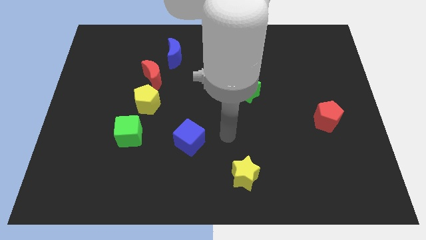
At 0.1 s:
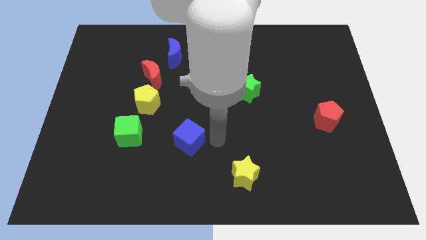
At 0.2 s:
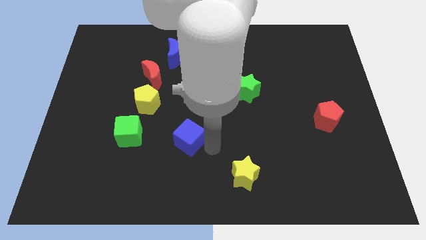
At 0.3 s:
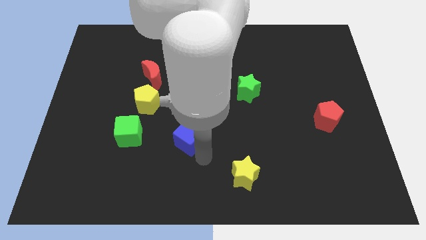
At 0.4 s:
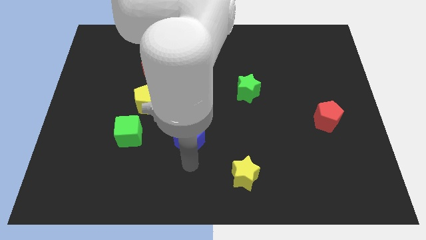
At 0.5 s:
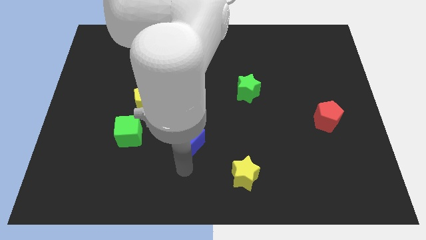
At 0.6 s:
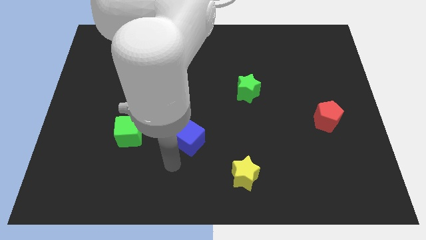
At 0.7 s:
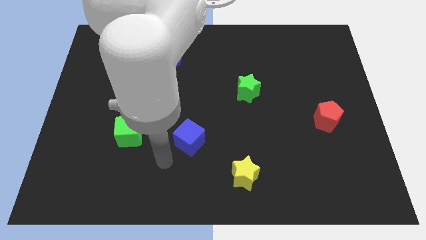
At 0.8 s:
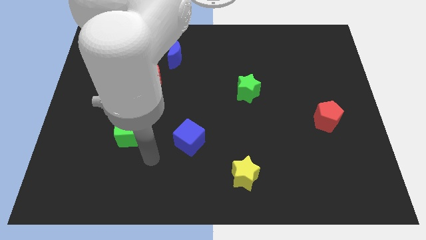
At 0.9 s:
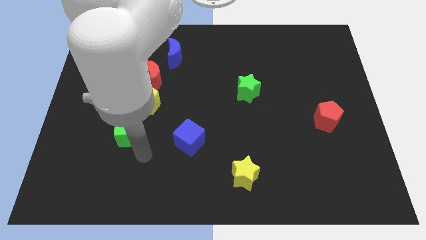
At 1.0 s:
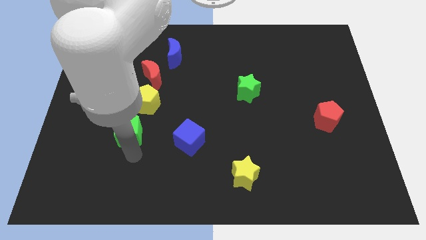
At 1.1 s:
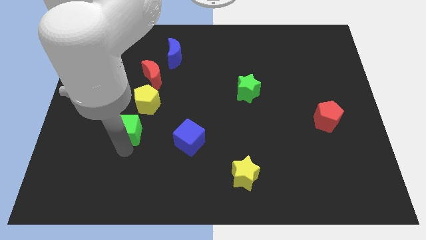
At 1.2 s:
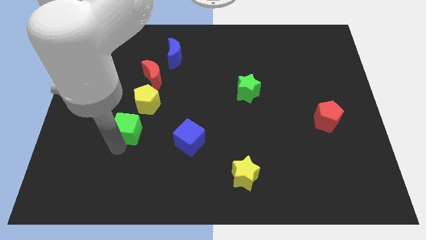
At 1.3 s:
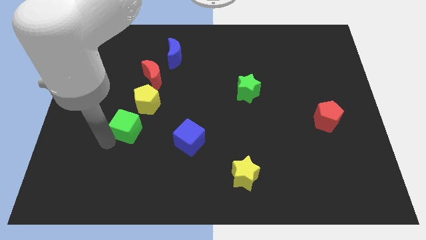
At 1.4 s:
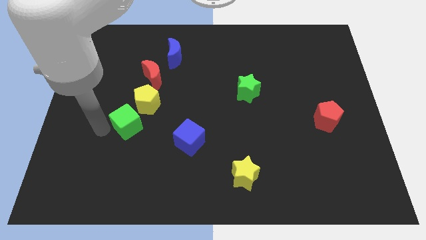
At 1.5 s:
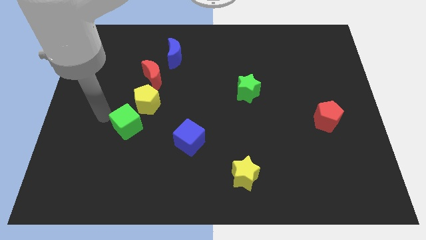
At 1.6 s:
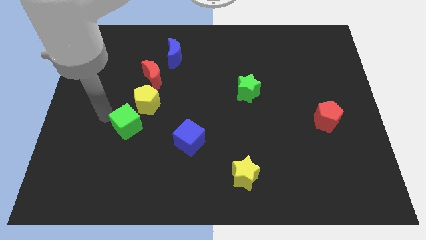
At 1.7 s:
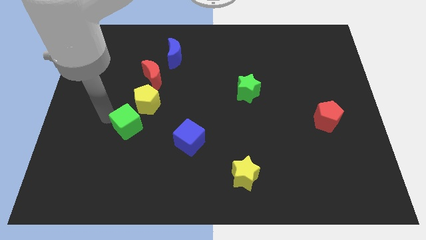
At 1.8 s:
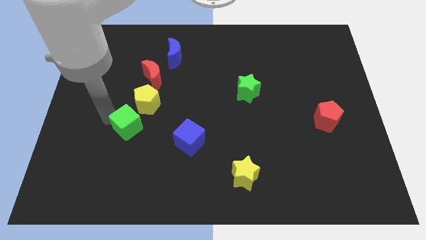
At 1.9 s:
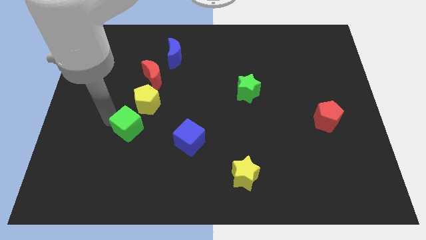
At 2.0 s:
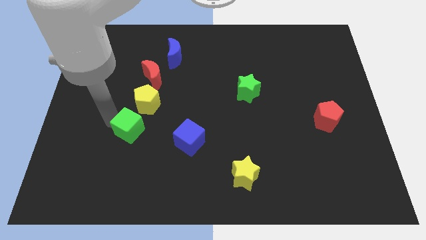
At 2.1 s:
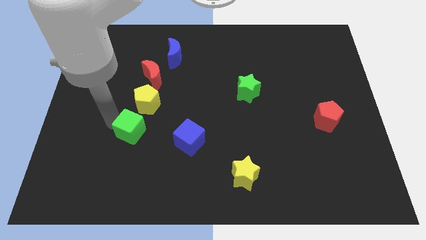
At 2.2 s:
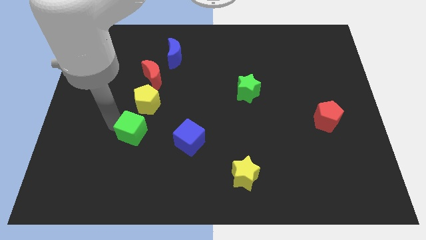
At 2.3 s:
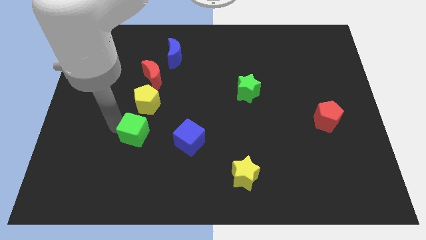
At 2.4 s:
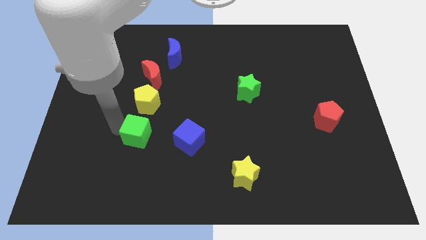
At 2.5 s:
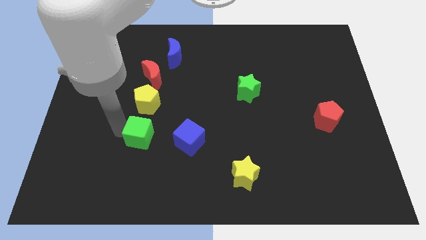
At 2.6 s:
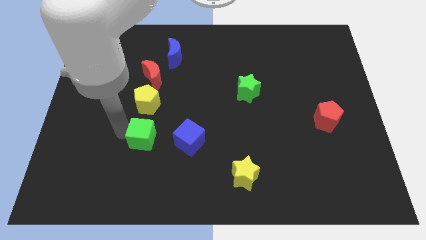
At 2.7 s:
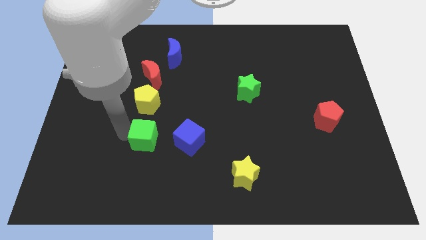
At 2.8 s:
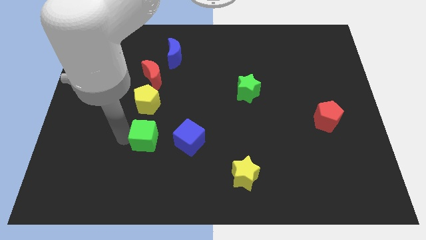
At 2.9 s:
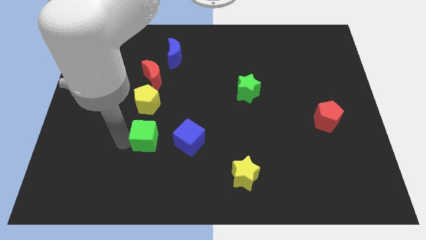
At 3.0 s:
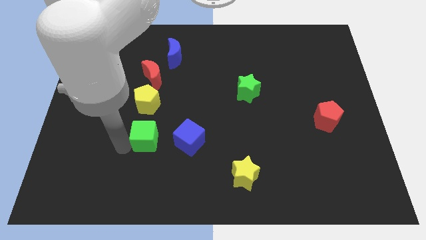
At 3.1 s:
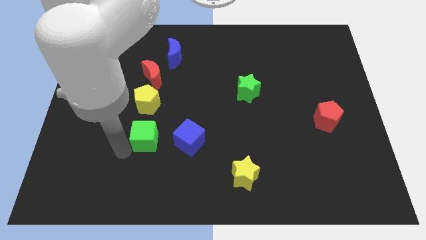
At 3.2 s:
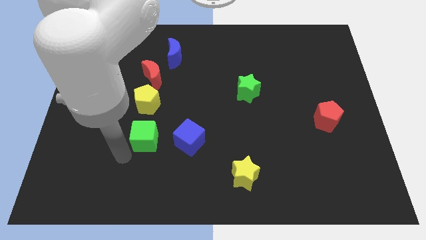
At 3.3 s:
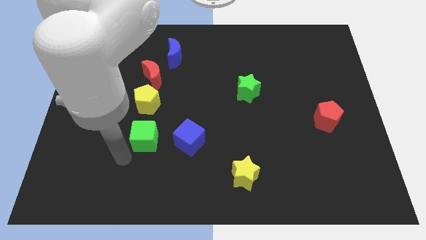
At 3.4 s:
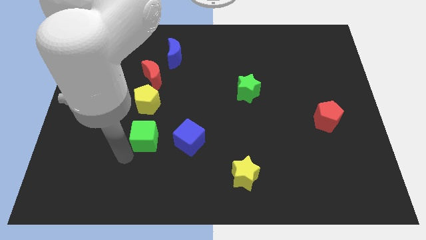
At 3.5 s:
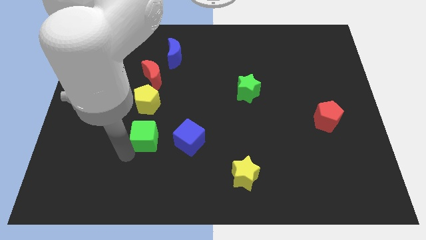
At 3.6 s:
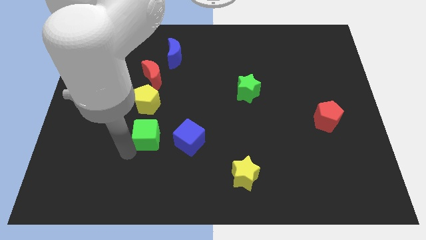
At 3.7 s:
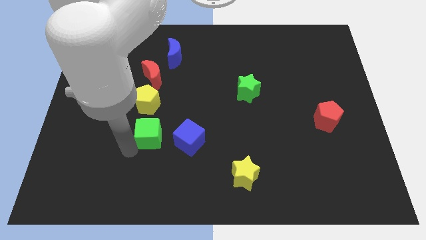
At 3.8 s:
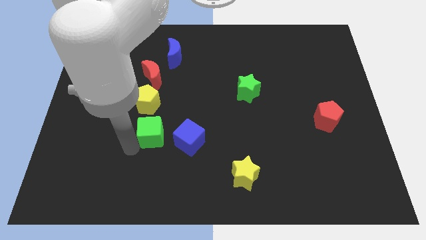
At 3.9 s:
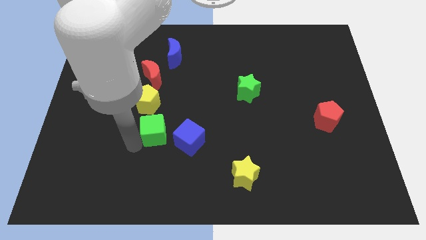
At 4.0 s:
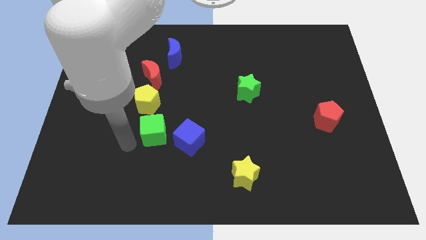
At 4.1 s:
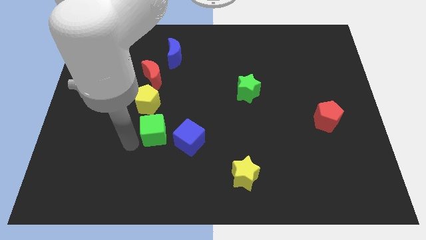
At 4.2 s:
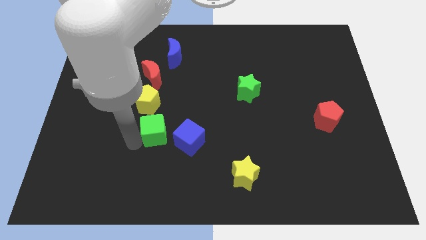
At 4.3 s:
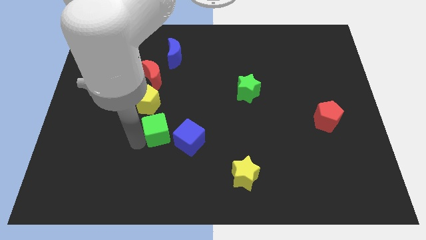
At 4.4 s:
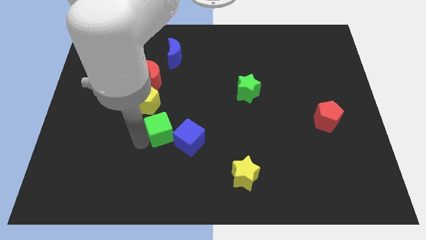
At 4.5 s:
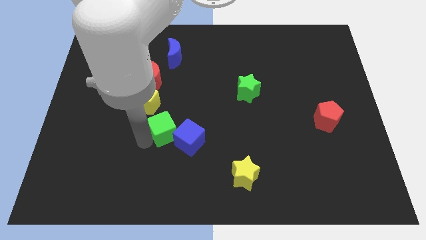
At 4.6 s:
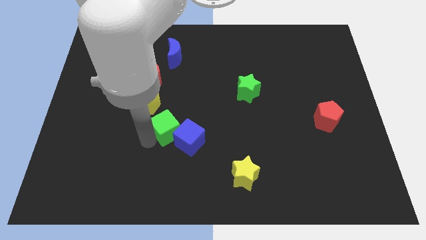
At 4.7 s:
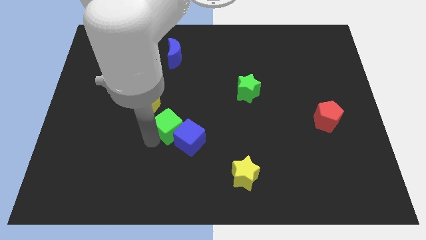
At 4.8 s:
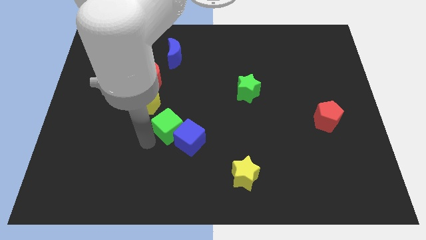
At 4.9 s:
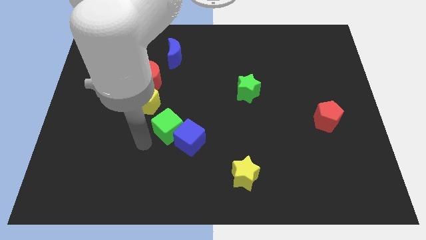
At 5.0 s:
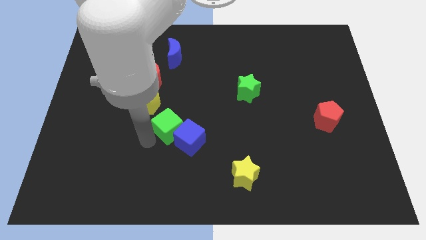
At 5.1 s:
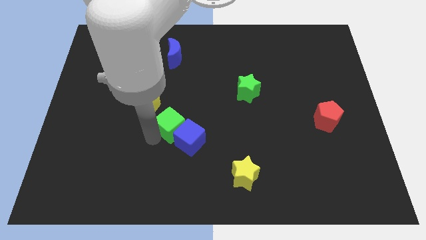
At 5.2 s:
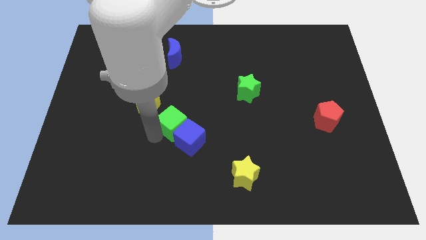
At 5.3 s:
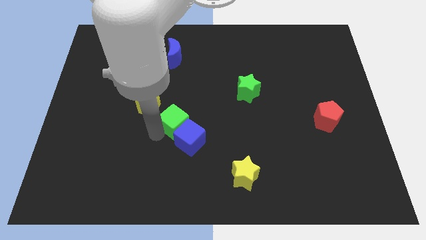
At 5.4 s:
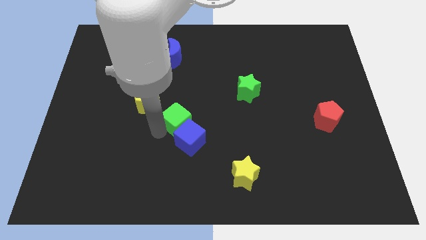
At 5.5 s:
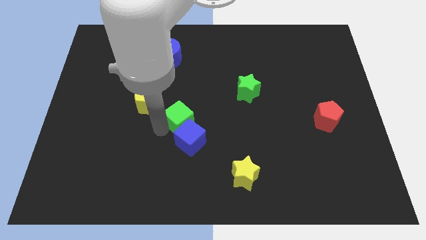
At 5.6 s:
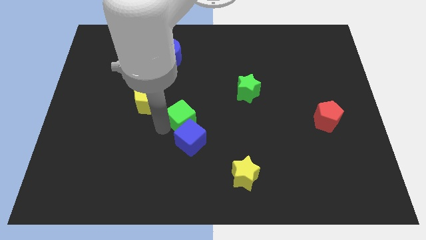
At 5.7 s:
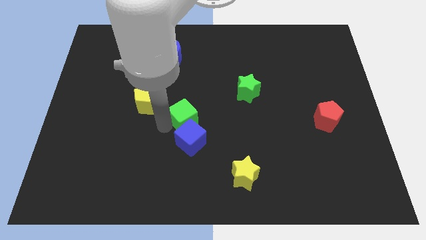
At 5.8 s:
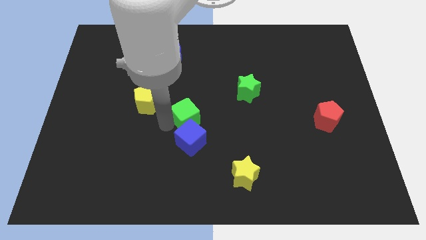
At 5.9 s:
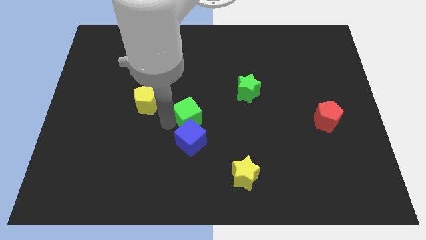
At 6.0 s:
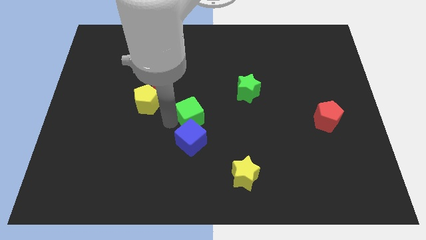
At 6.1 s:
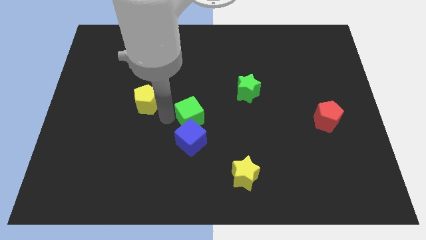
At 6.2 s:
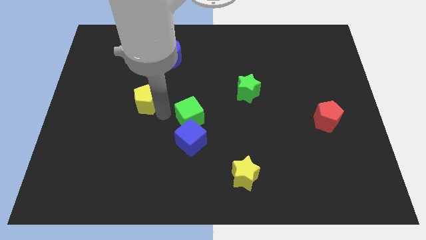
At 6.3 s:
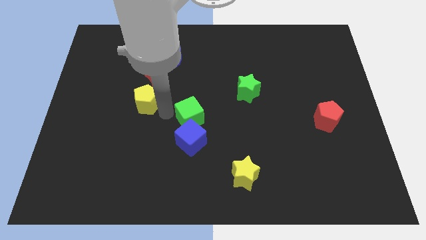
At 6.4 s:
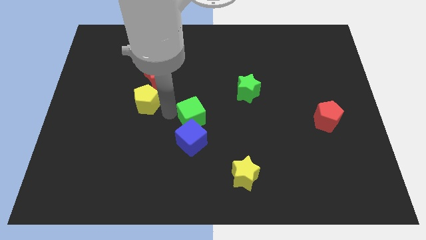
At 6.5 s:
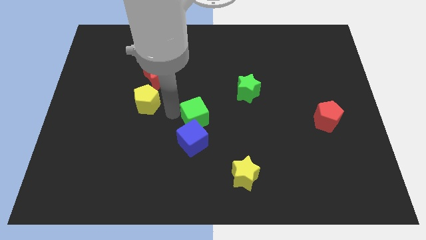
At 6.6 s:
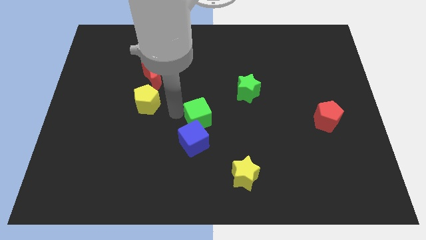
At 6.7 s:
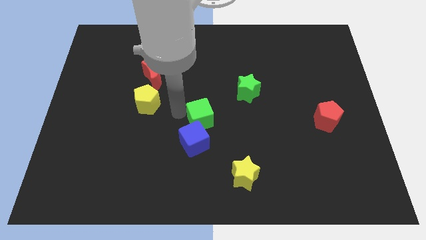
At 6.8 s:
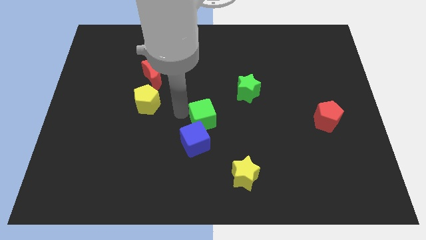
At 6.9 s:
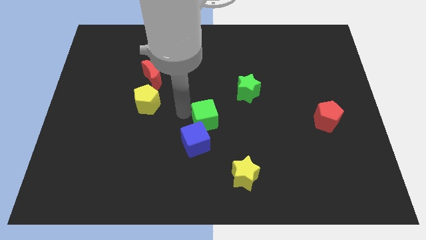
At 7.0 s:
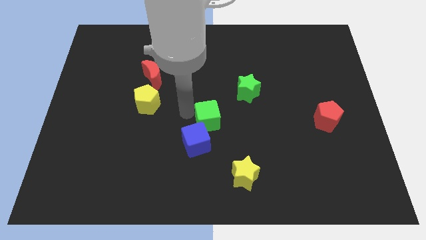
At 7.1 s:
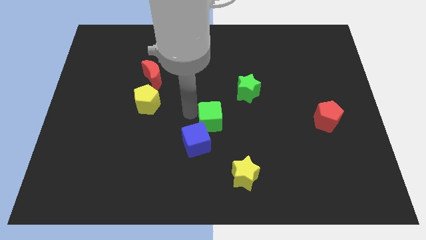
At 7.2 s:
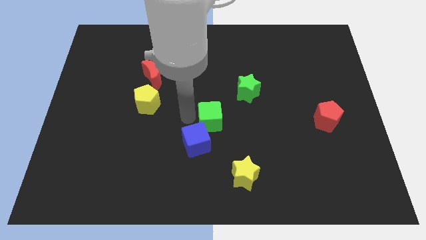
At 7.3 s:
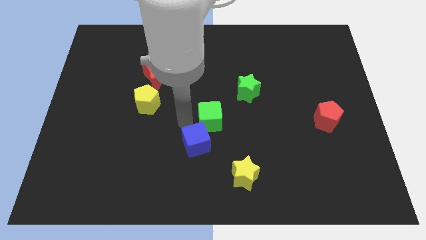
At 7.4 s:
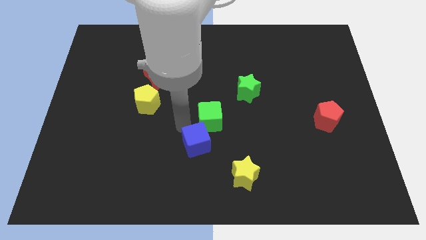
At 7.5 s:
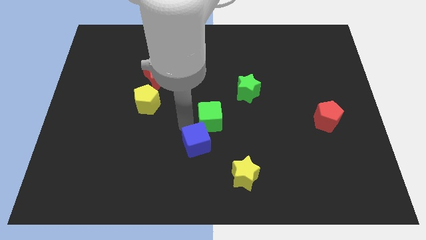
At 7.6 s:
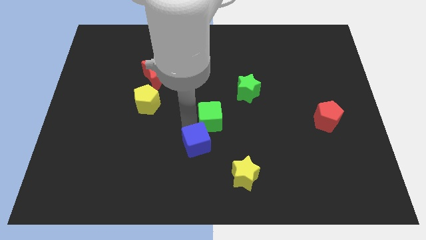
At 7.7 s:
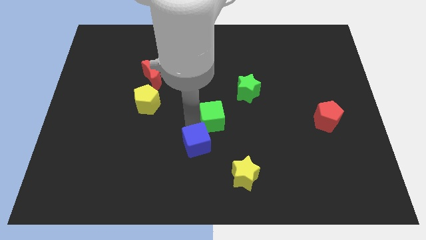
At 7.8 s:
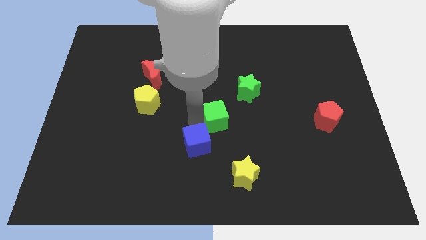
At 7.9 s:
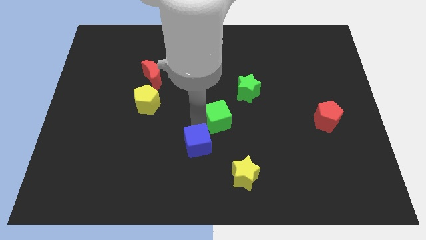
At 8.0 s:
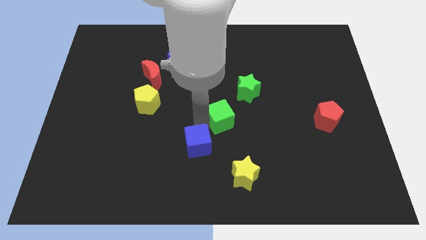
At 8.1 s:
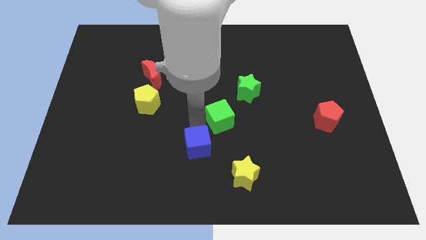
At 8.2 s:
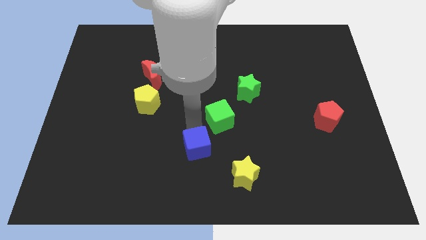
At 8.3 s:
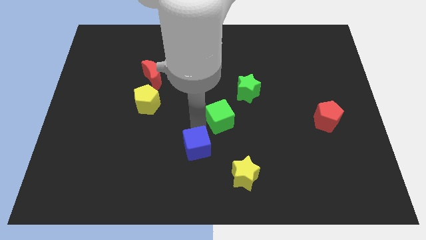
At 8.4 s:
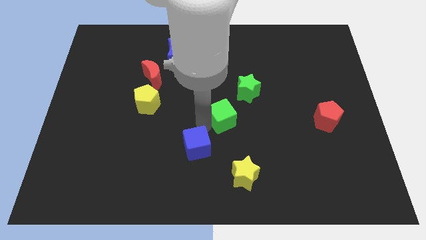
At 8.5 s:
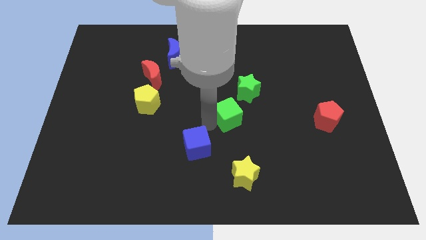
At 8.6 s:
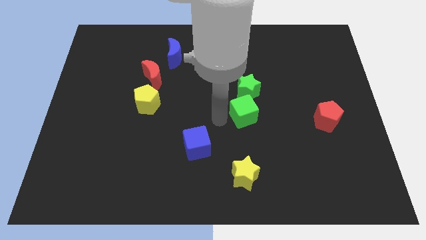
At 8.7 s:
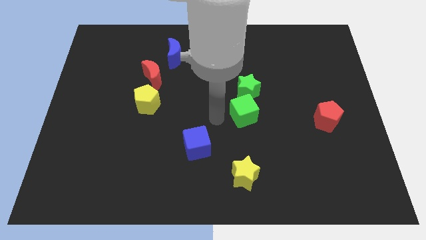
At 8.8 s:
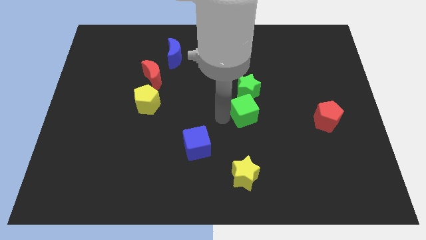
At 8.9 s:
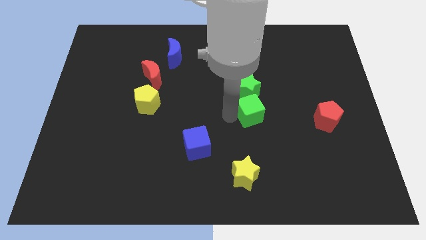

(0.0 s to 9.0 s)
put the green cube to the bottom right side of the green star
